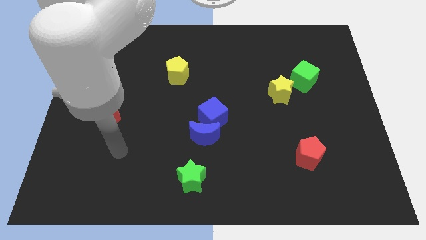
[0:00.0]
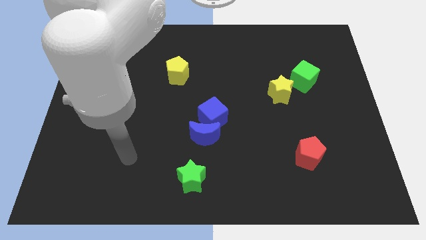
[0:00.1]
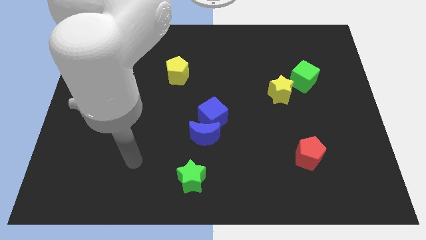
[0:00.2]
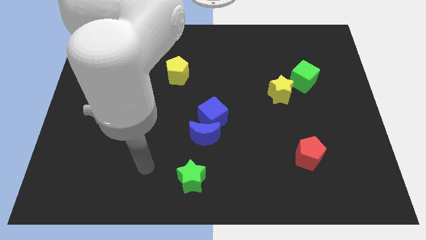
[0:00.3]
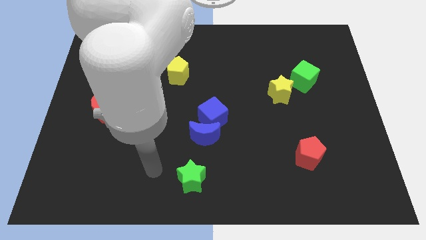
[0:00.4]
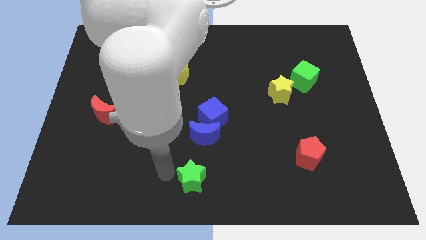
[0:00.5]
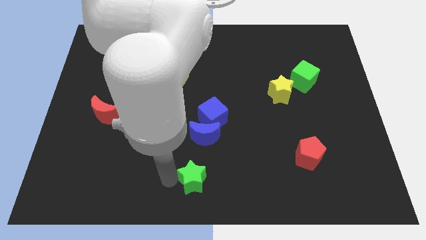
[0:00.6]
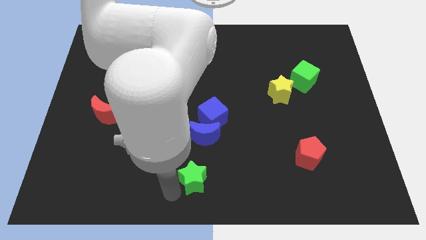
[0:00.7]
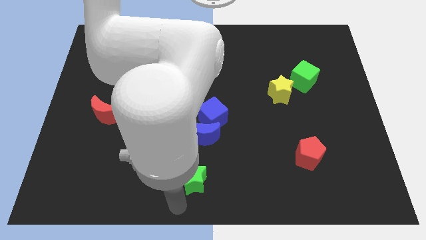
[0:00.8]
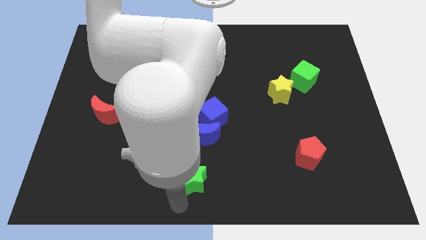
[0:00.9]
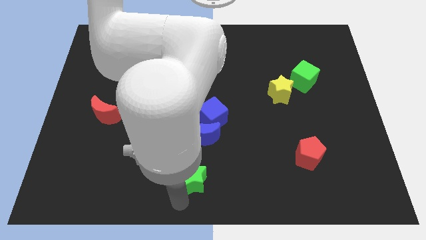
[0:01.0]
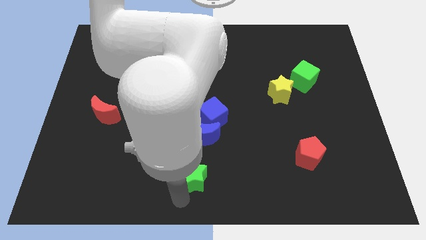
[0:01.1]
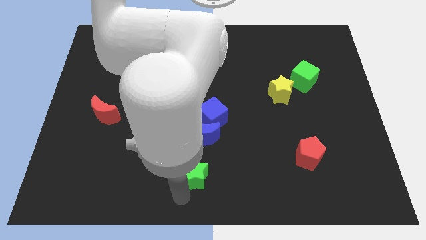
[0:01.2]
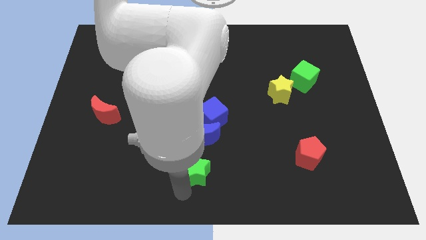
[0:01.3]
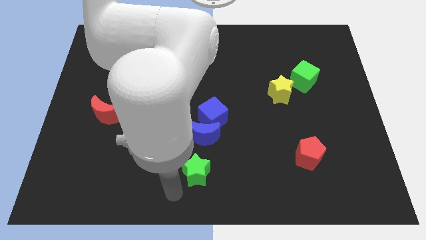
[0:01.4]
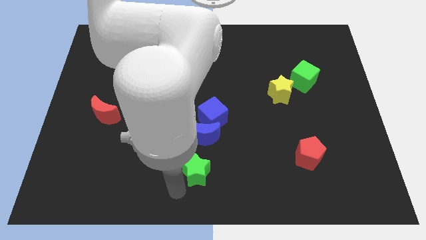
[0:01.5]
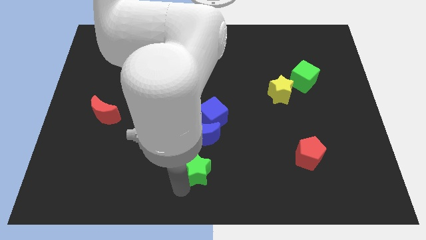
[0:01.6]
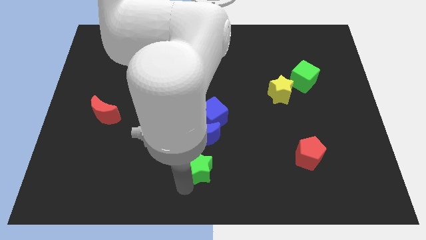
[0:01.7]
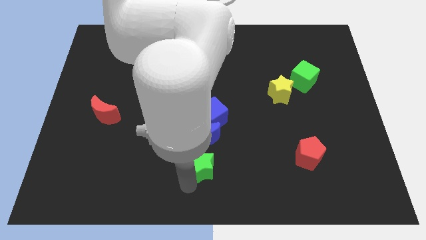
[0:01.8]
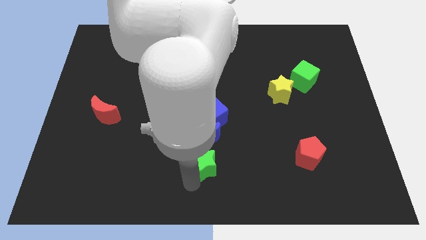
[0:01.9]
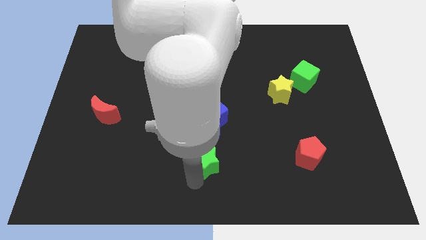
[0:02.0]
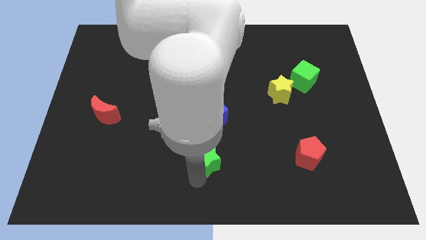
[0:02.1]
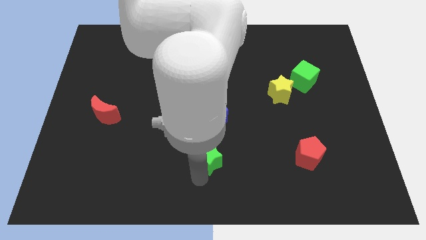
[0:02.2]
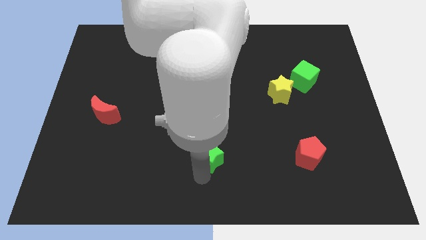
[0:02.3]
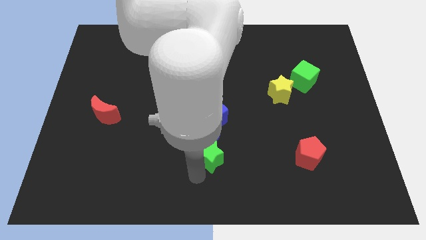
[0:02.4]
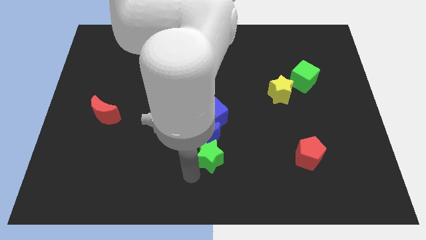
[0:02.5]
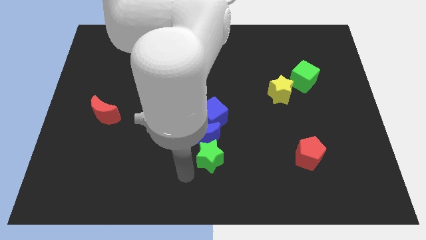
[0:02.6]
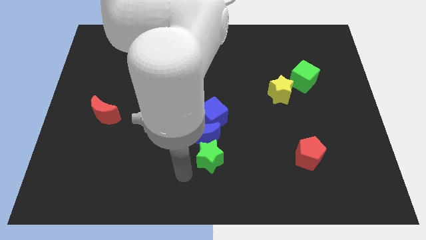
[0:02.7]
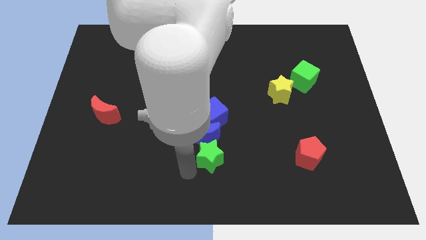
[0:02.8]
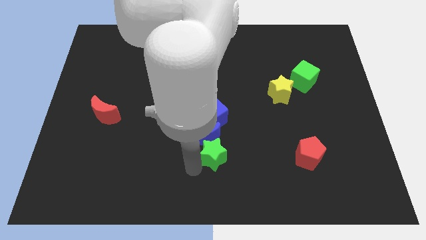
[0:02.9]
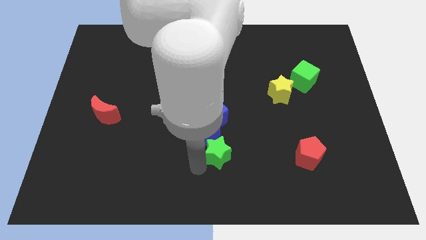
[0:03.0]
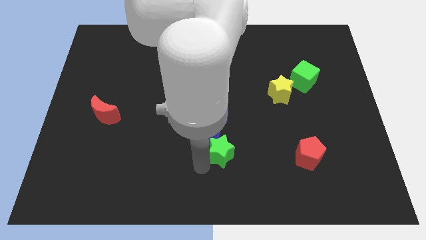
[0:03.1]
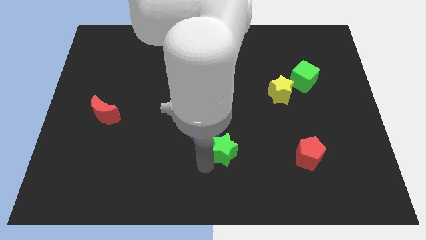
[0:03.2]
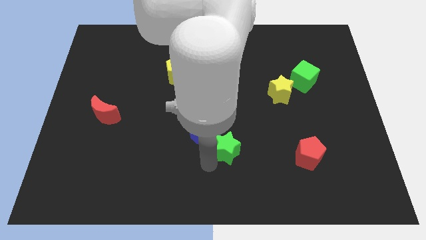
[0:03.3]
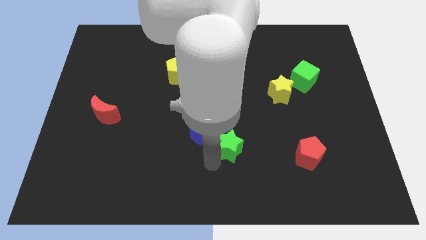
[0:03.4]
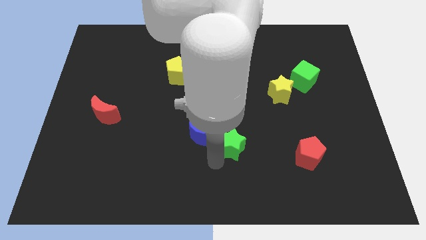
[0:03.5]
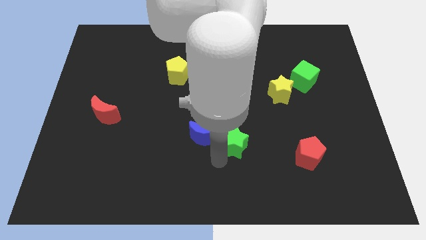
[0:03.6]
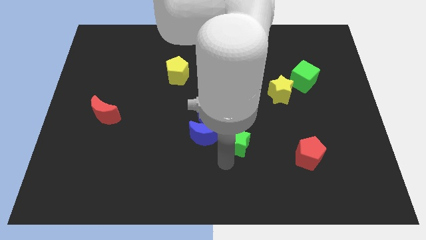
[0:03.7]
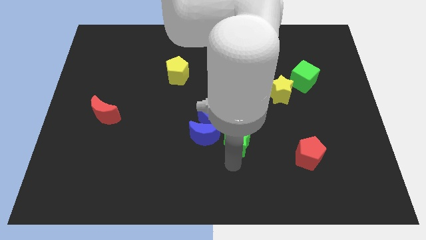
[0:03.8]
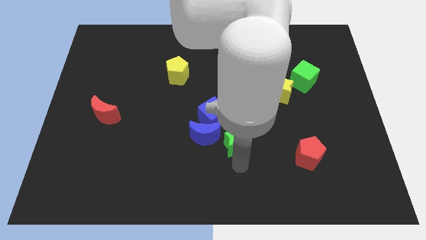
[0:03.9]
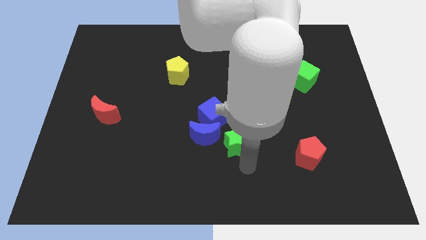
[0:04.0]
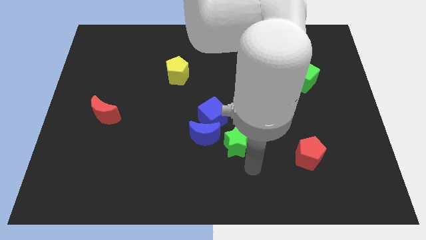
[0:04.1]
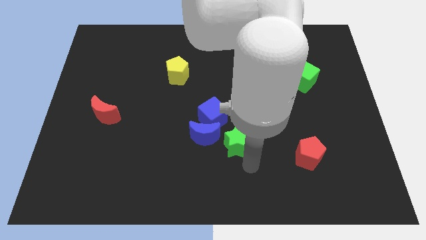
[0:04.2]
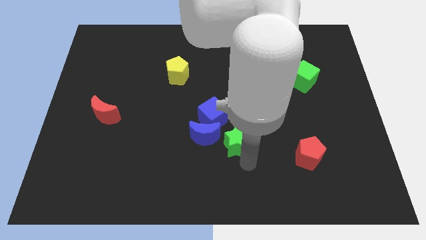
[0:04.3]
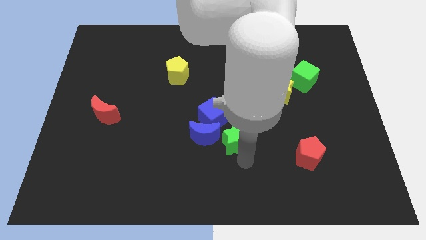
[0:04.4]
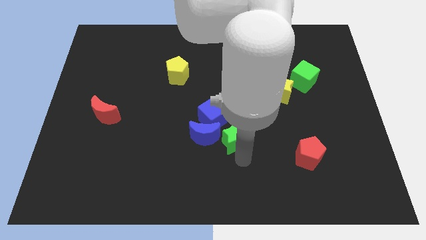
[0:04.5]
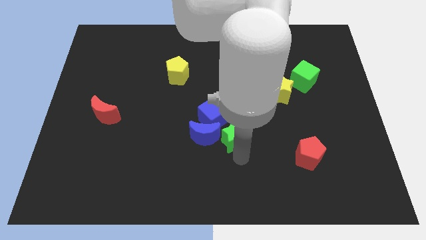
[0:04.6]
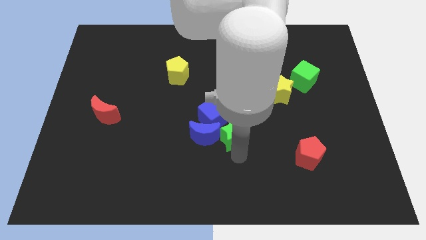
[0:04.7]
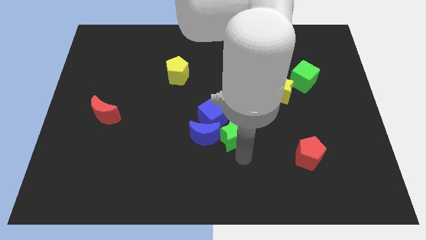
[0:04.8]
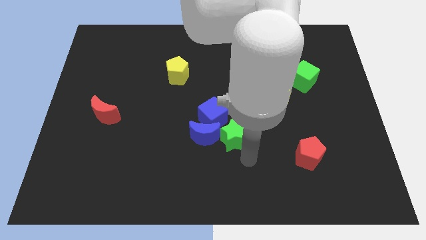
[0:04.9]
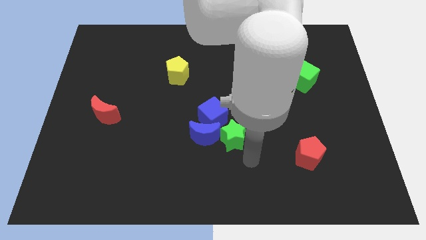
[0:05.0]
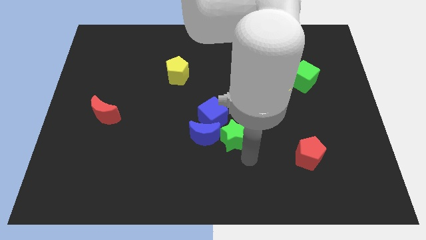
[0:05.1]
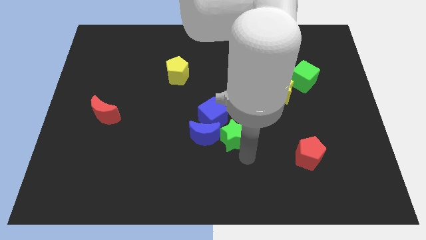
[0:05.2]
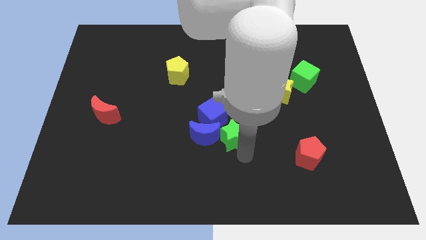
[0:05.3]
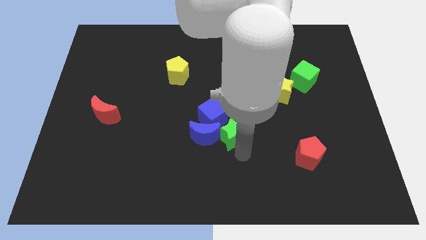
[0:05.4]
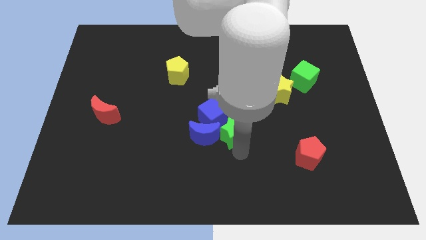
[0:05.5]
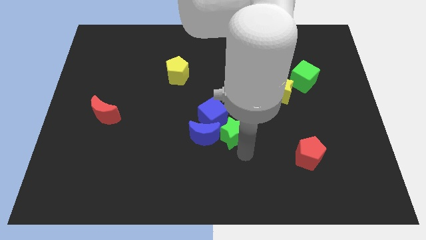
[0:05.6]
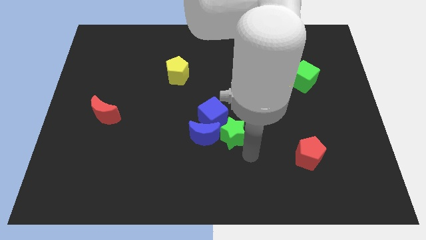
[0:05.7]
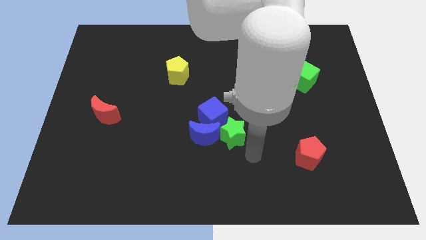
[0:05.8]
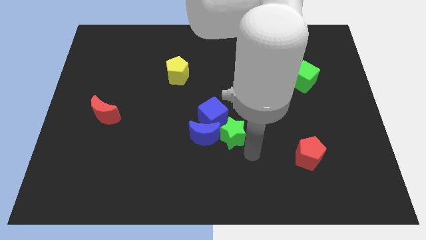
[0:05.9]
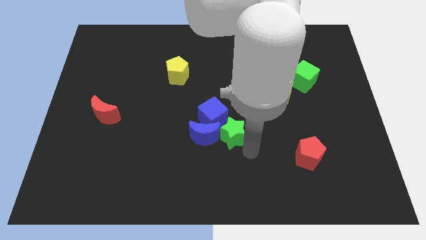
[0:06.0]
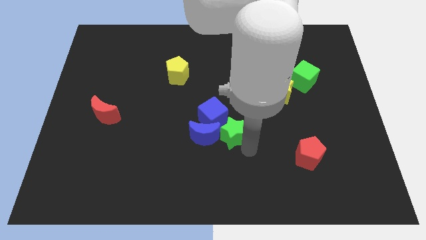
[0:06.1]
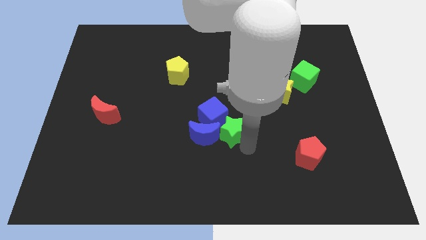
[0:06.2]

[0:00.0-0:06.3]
move the green star next to the blue cube

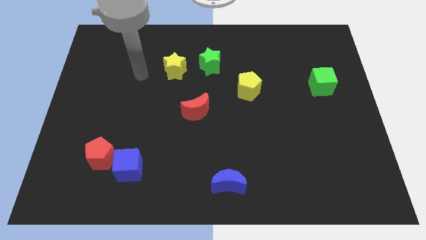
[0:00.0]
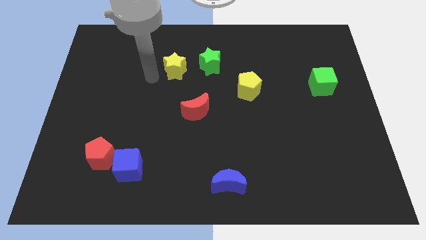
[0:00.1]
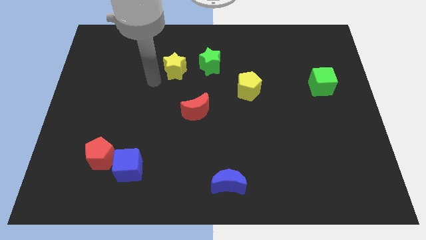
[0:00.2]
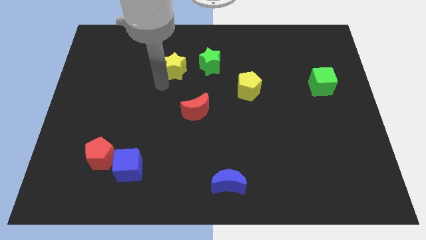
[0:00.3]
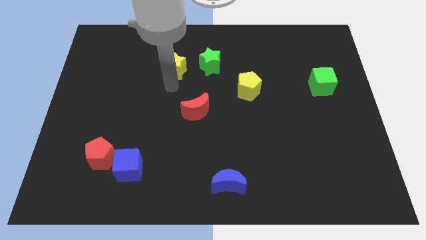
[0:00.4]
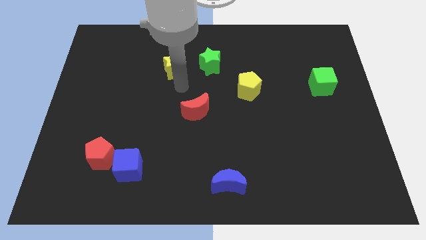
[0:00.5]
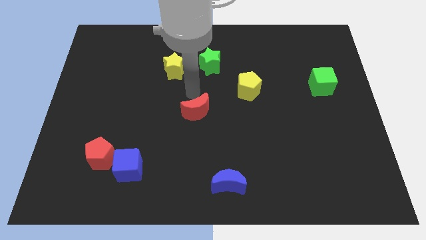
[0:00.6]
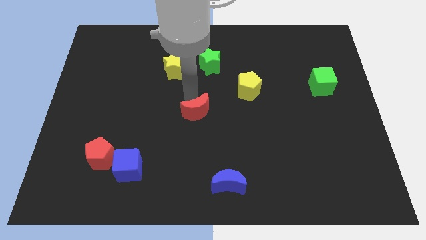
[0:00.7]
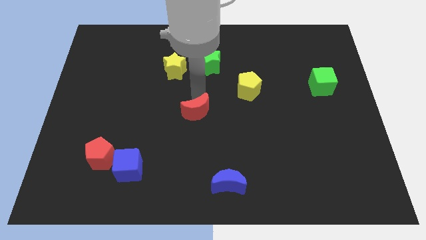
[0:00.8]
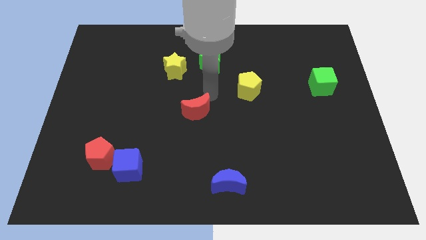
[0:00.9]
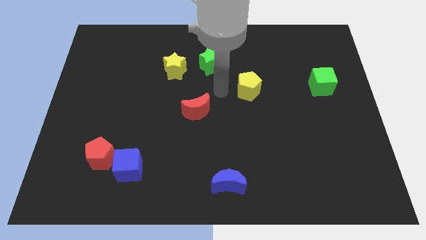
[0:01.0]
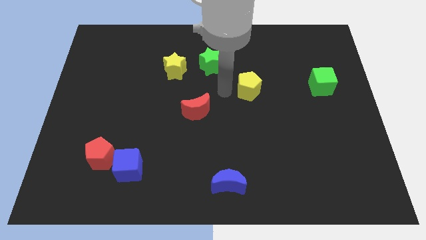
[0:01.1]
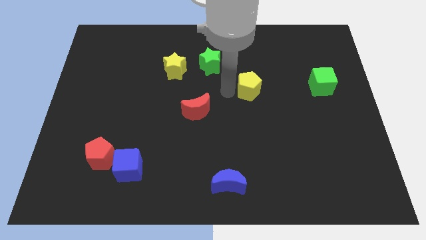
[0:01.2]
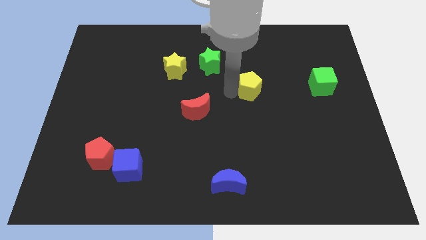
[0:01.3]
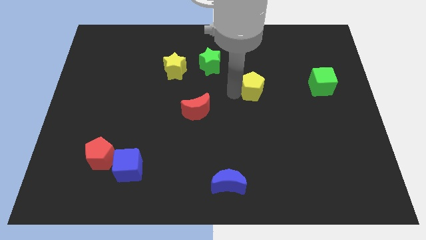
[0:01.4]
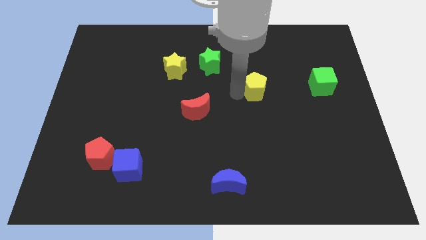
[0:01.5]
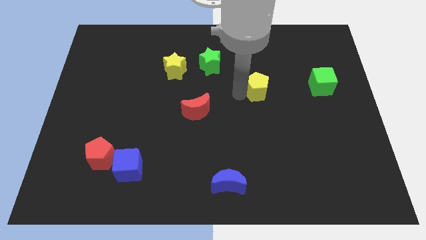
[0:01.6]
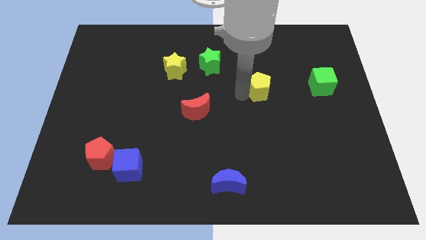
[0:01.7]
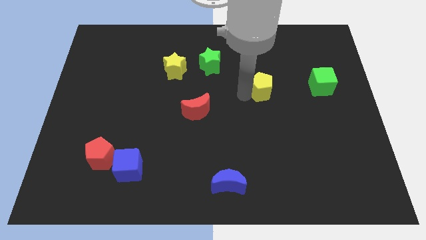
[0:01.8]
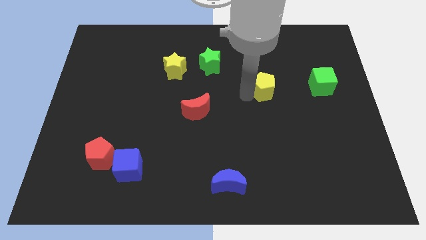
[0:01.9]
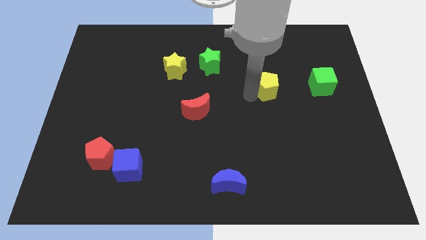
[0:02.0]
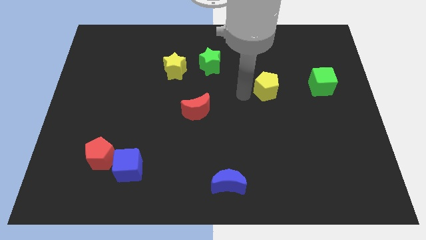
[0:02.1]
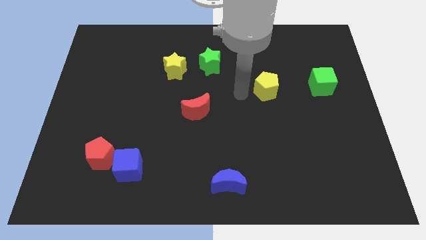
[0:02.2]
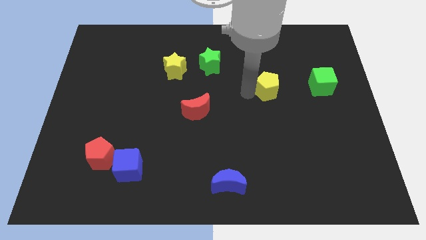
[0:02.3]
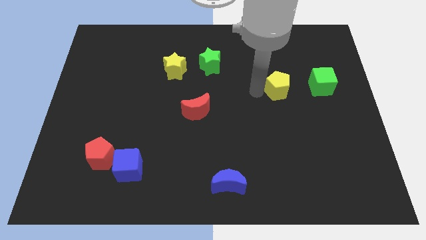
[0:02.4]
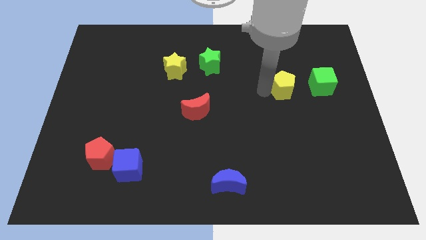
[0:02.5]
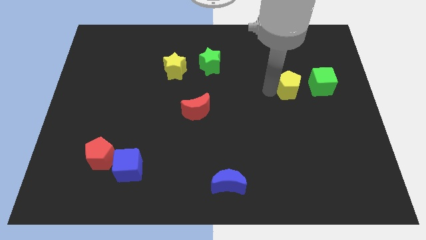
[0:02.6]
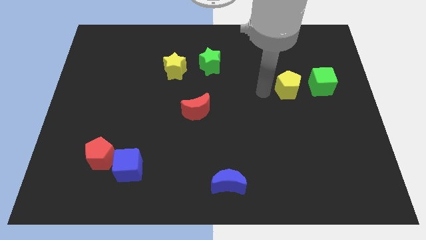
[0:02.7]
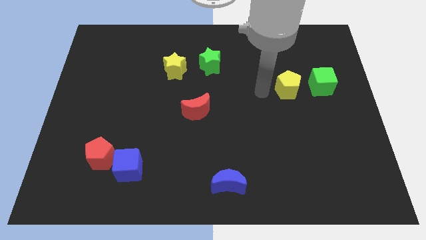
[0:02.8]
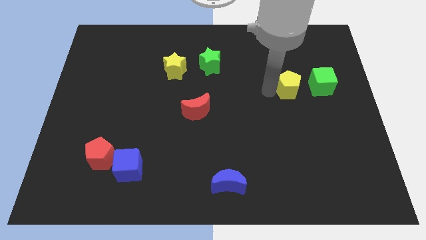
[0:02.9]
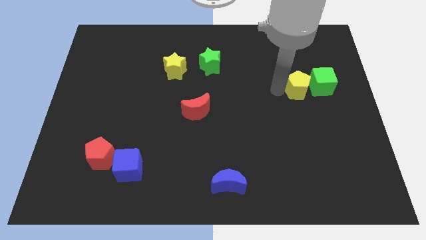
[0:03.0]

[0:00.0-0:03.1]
push the yellow pentagon next to the green cube
